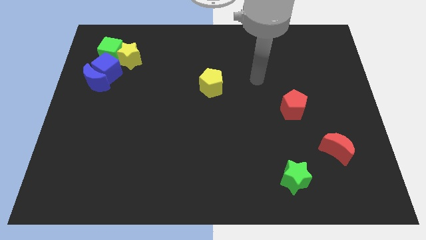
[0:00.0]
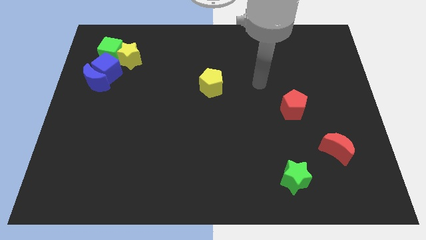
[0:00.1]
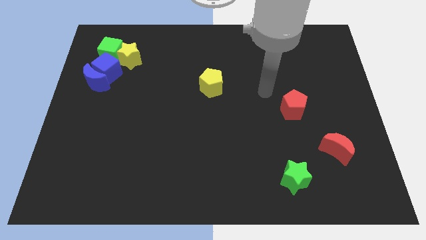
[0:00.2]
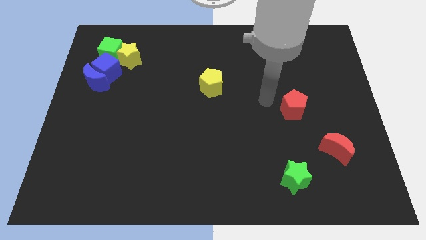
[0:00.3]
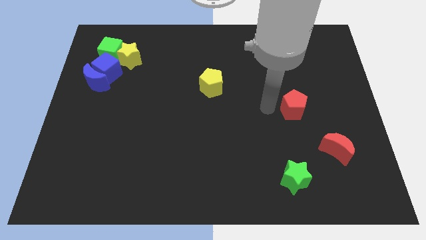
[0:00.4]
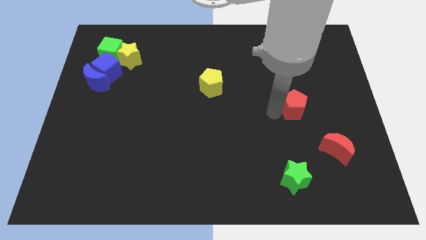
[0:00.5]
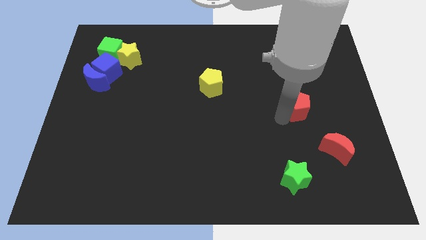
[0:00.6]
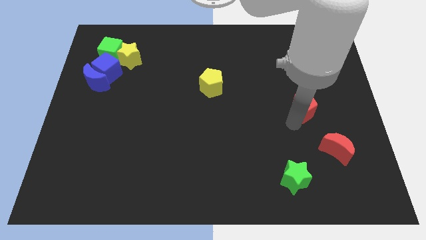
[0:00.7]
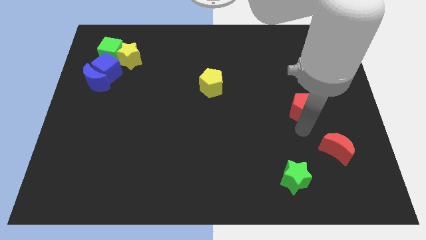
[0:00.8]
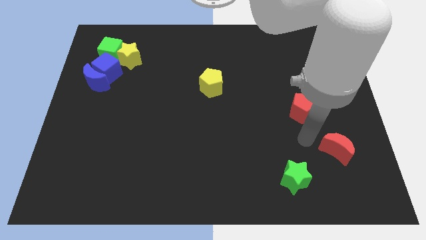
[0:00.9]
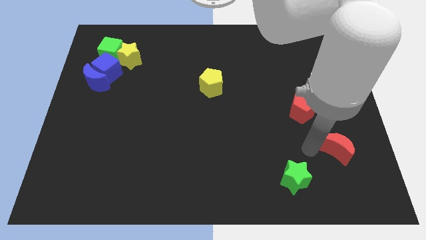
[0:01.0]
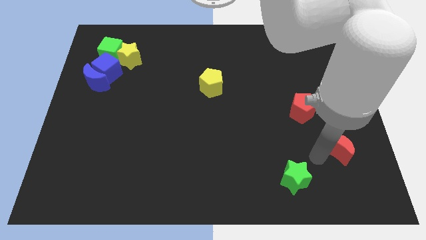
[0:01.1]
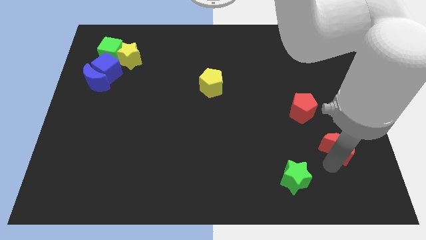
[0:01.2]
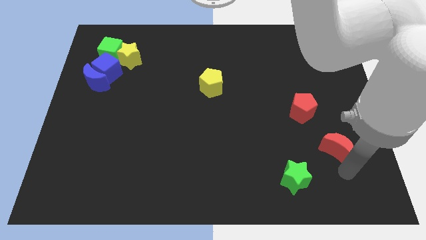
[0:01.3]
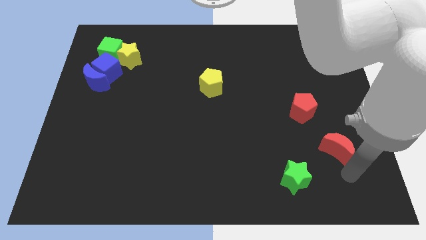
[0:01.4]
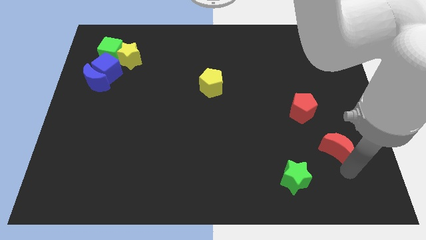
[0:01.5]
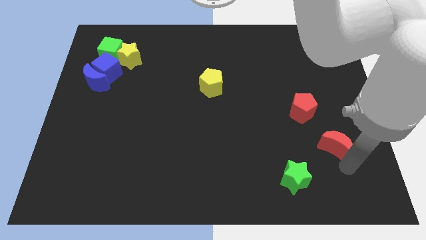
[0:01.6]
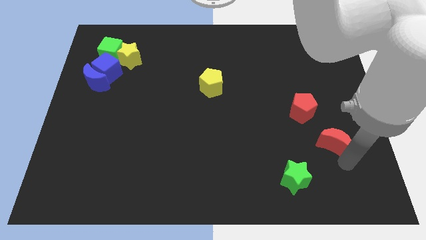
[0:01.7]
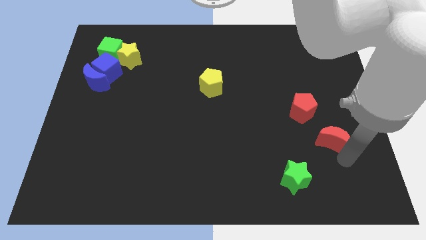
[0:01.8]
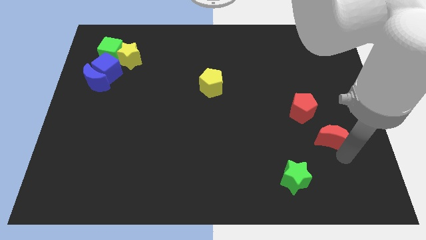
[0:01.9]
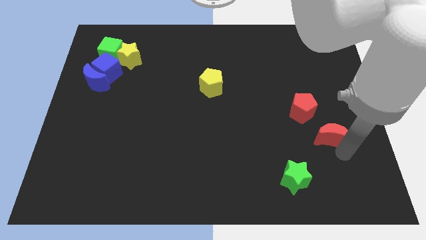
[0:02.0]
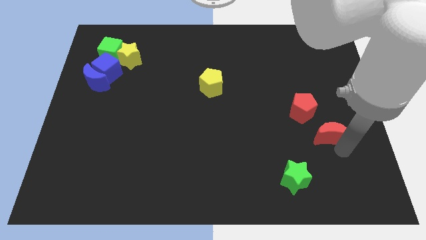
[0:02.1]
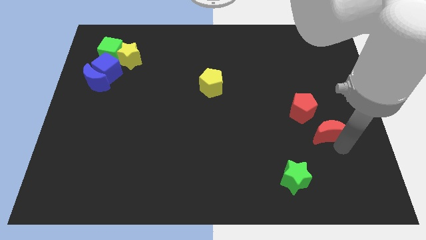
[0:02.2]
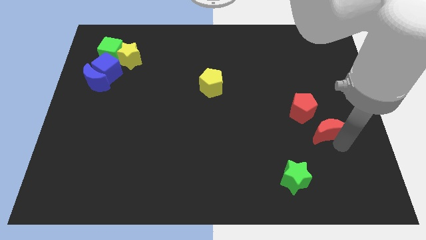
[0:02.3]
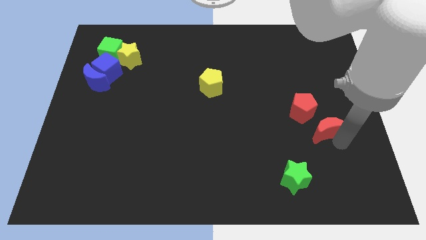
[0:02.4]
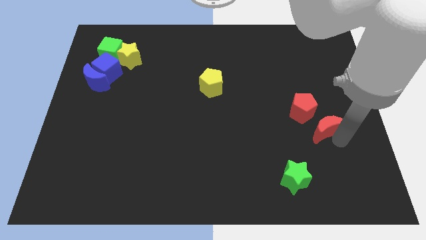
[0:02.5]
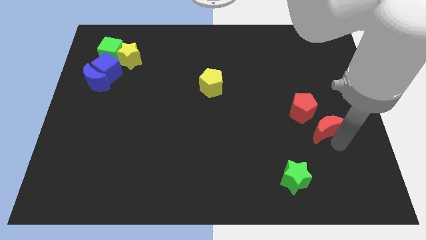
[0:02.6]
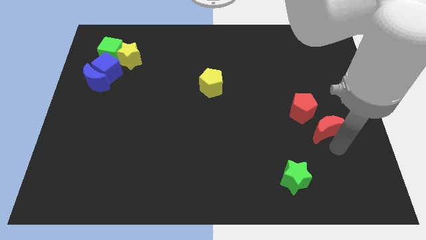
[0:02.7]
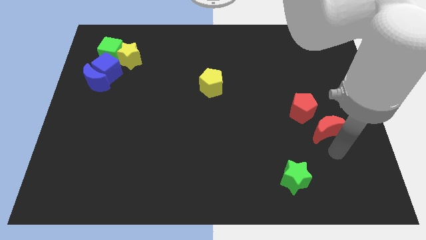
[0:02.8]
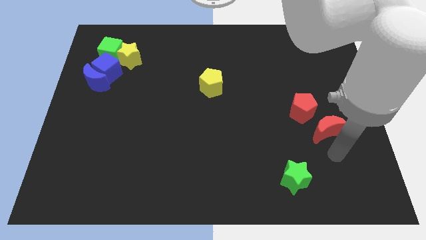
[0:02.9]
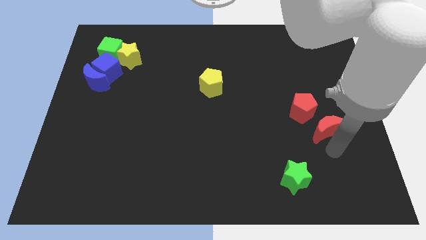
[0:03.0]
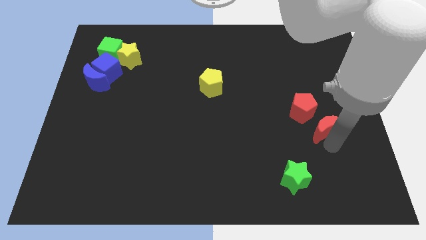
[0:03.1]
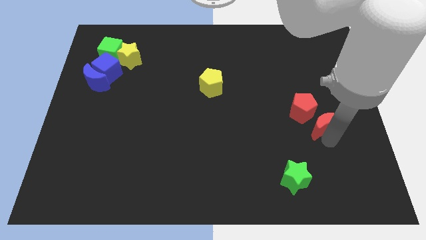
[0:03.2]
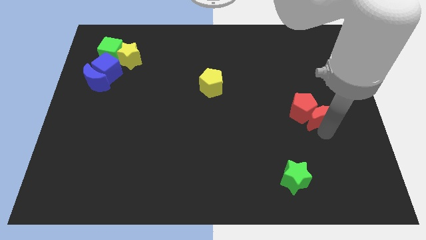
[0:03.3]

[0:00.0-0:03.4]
move the red moon somewhat upwards

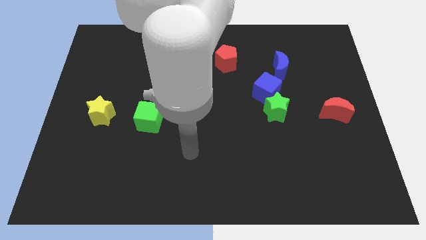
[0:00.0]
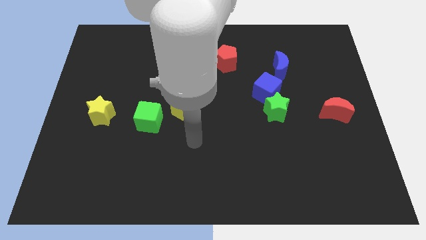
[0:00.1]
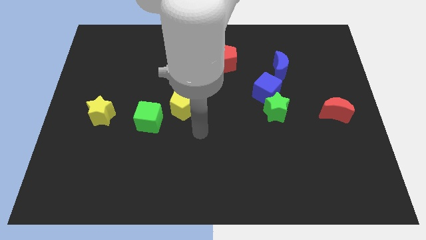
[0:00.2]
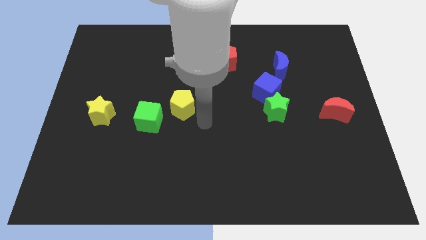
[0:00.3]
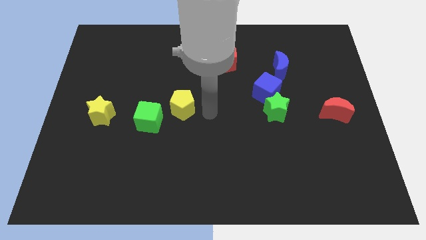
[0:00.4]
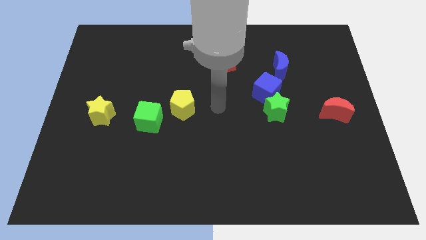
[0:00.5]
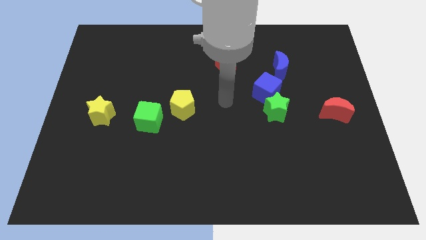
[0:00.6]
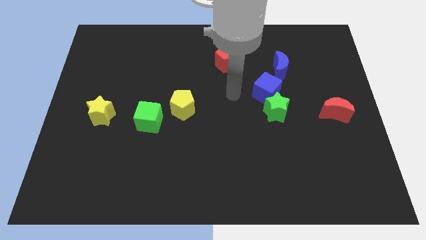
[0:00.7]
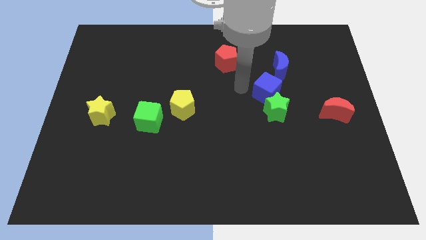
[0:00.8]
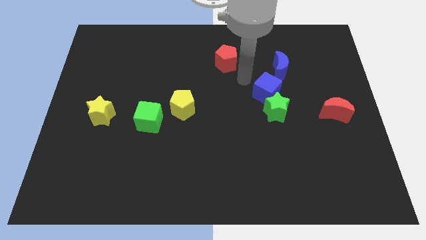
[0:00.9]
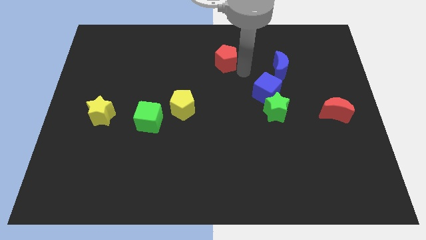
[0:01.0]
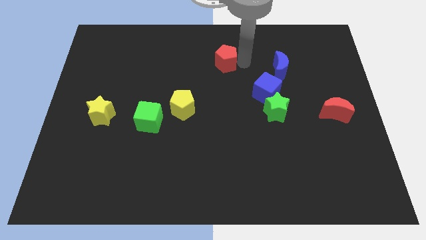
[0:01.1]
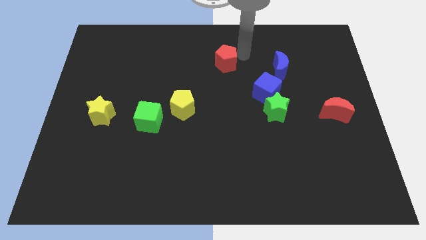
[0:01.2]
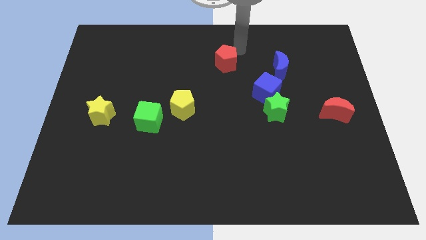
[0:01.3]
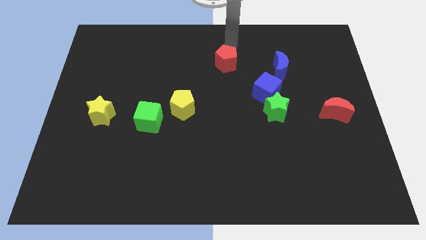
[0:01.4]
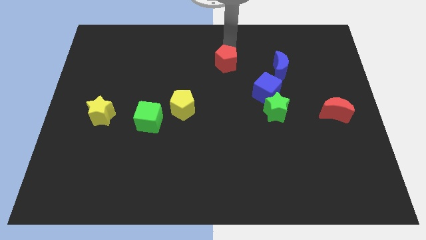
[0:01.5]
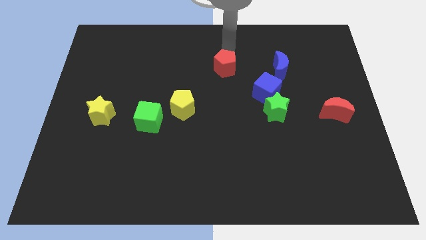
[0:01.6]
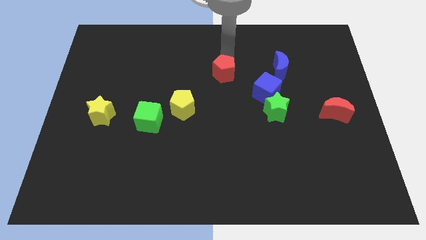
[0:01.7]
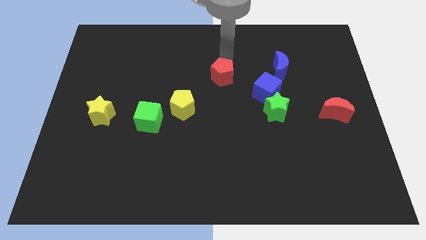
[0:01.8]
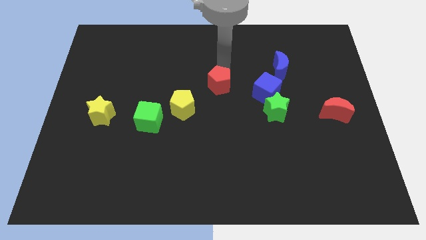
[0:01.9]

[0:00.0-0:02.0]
slide the red pentagon slightly down

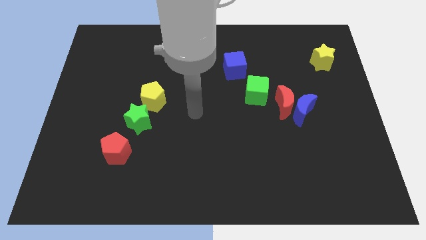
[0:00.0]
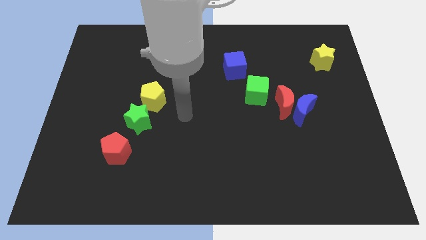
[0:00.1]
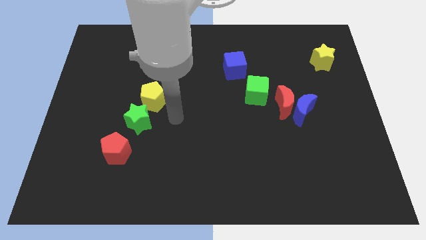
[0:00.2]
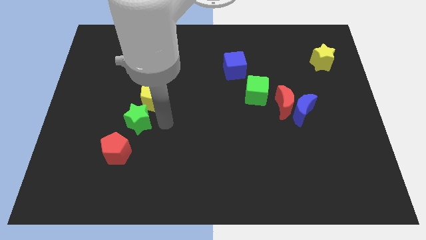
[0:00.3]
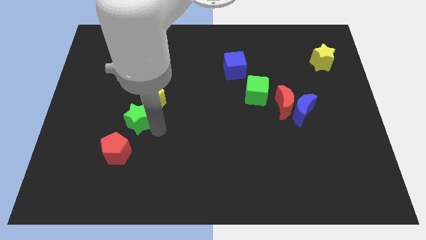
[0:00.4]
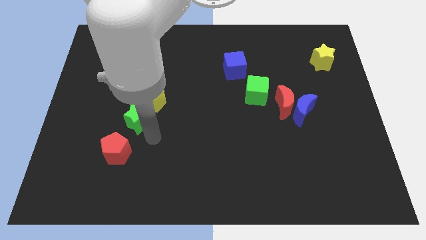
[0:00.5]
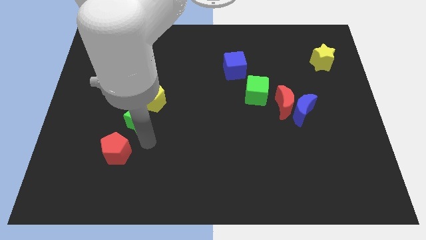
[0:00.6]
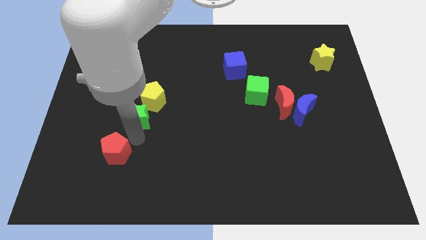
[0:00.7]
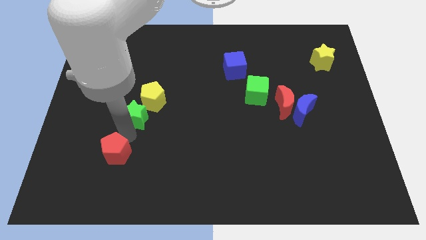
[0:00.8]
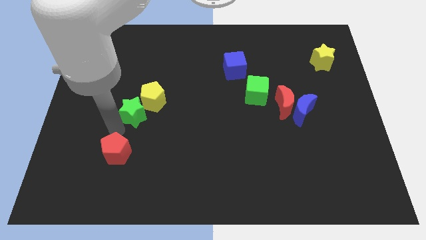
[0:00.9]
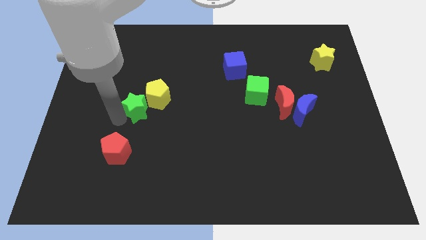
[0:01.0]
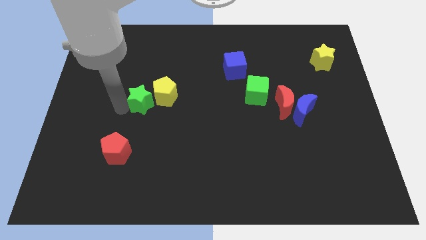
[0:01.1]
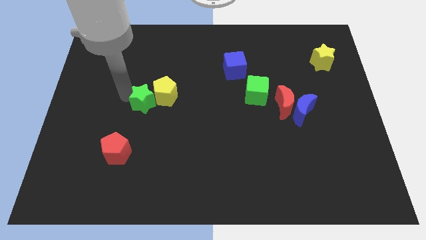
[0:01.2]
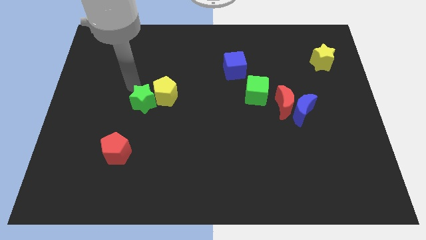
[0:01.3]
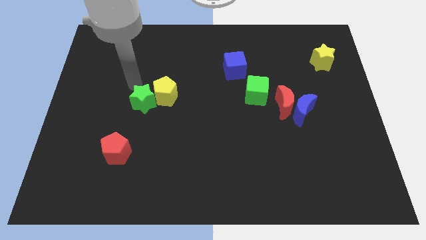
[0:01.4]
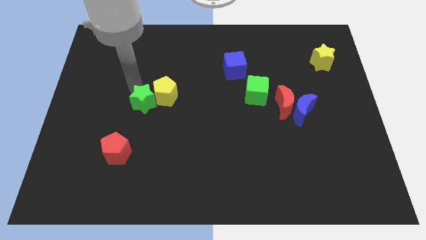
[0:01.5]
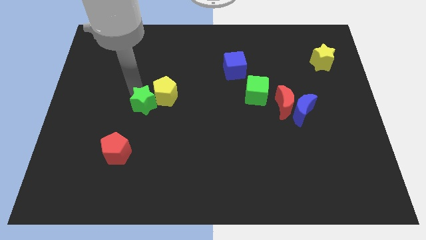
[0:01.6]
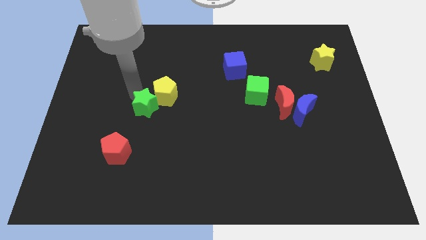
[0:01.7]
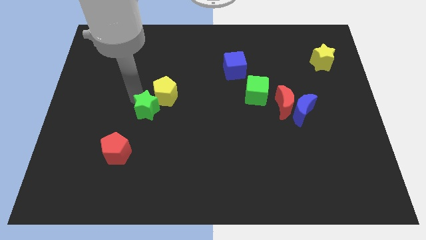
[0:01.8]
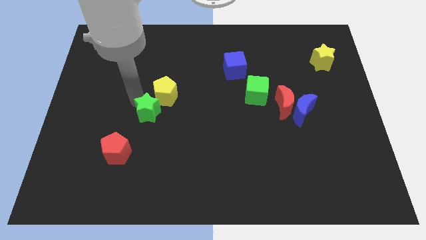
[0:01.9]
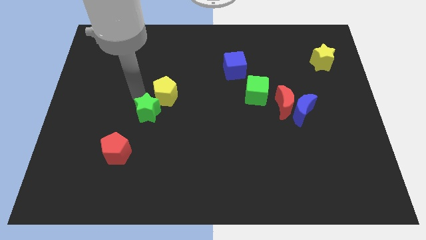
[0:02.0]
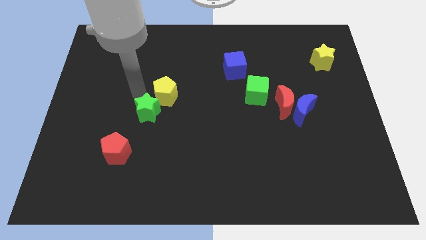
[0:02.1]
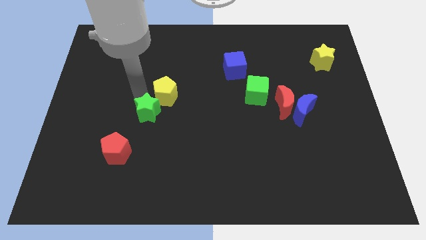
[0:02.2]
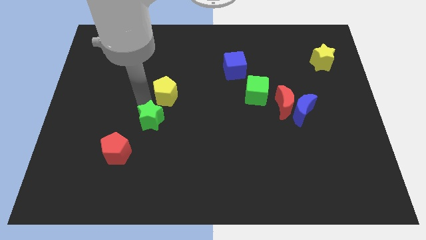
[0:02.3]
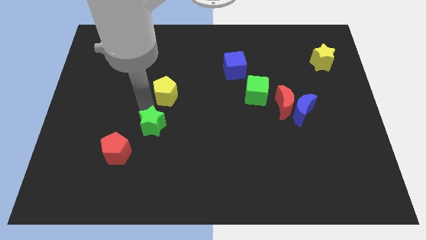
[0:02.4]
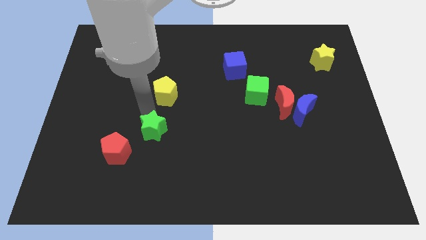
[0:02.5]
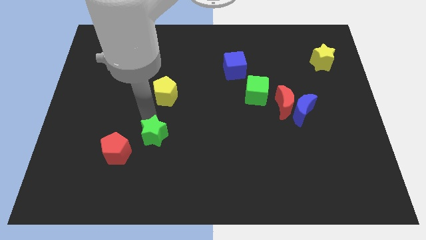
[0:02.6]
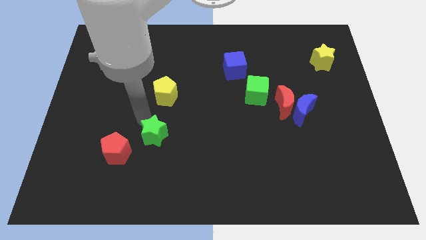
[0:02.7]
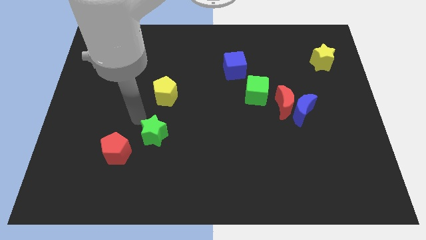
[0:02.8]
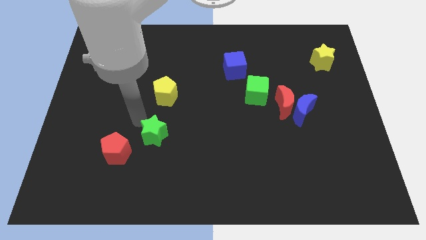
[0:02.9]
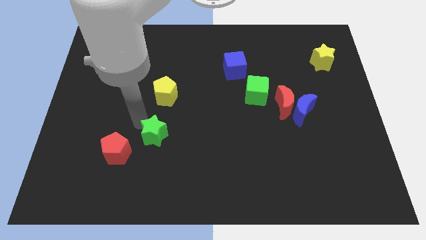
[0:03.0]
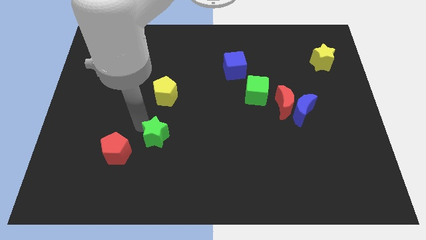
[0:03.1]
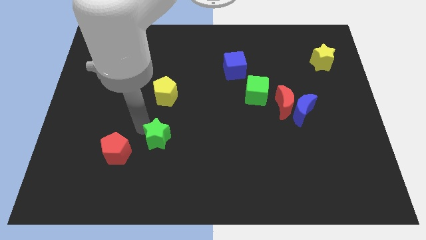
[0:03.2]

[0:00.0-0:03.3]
slightly move the green star downwards and then to the right
